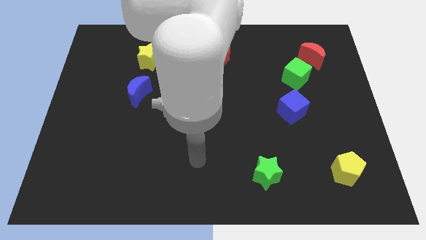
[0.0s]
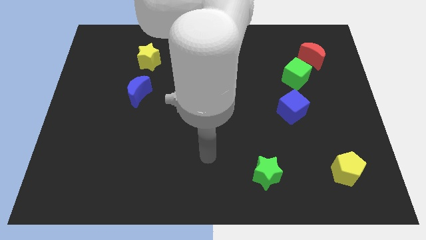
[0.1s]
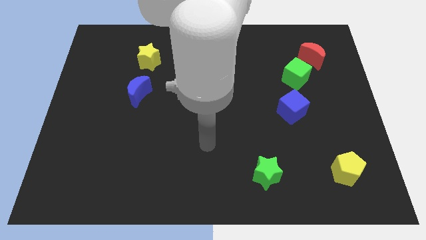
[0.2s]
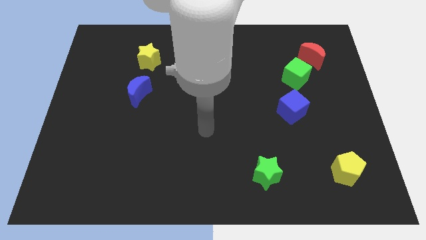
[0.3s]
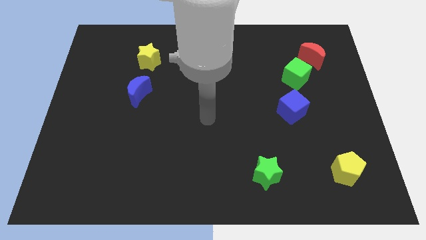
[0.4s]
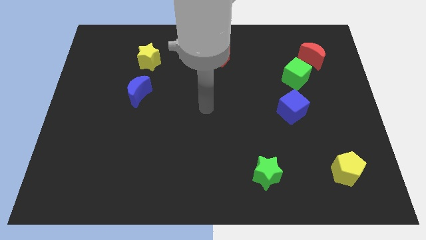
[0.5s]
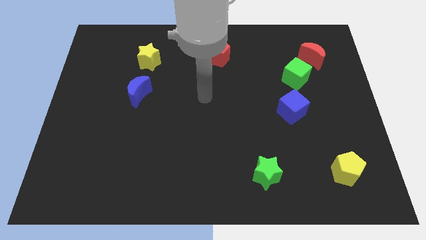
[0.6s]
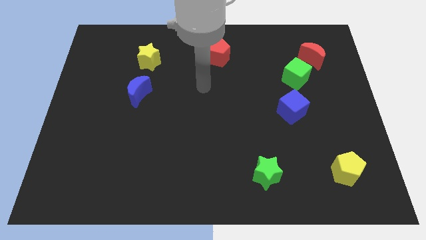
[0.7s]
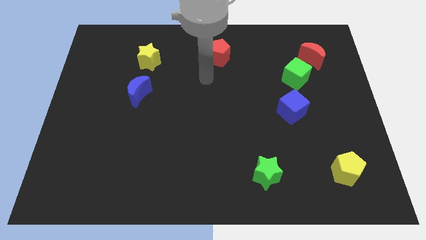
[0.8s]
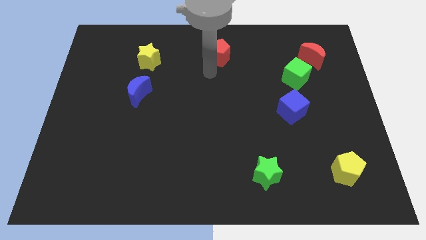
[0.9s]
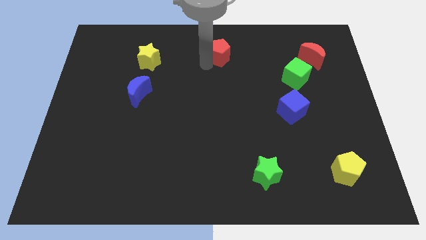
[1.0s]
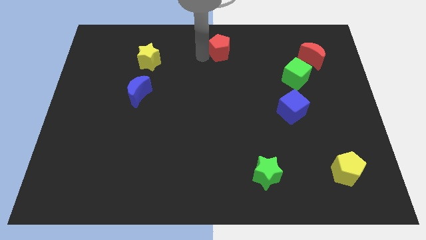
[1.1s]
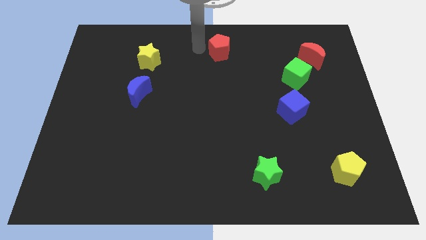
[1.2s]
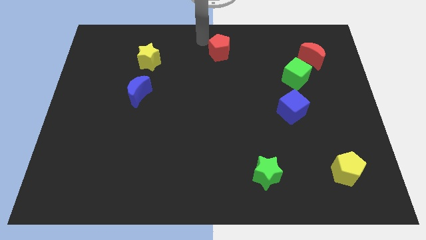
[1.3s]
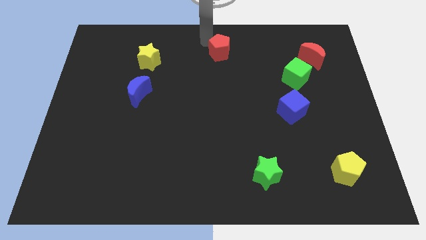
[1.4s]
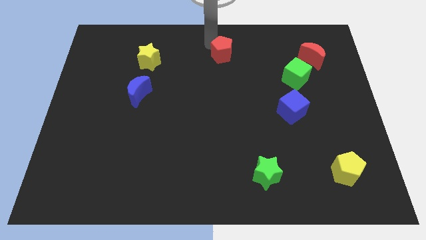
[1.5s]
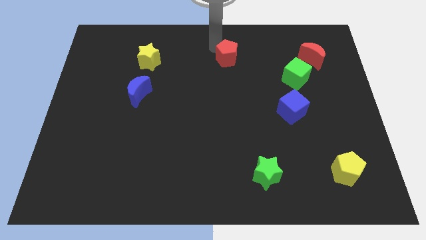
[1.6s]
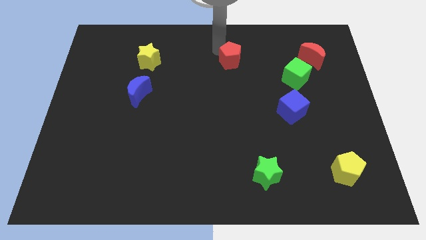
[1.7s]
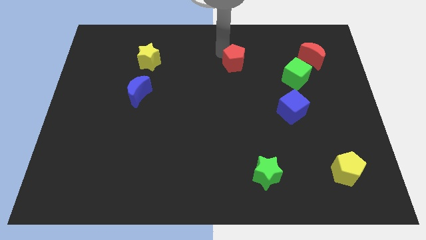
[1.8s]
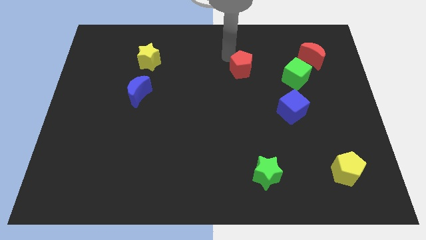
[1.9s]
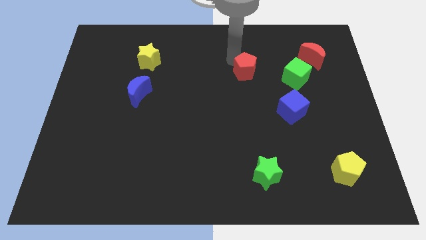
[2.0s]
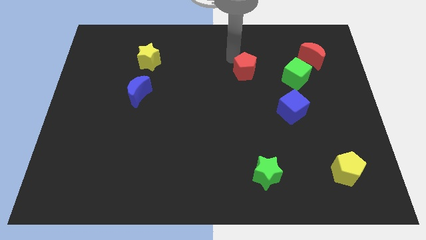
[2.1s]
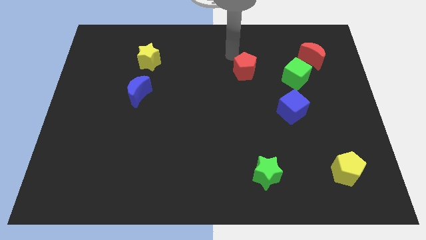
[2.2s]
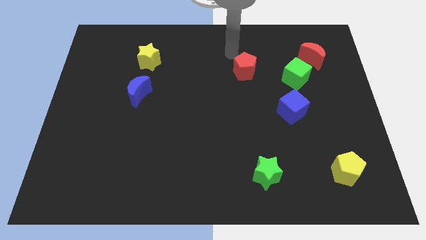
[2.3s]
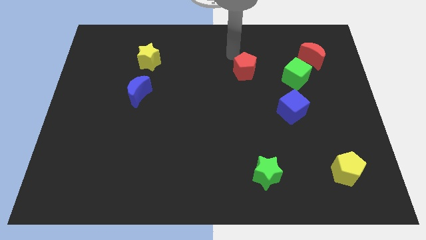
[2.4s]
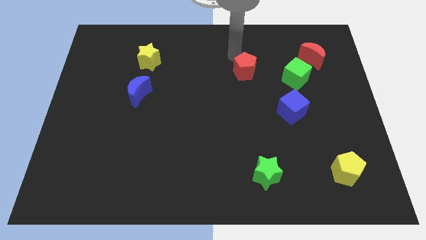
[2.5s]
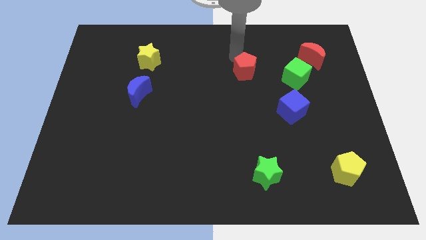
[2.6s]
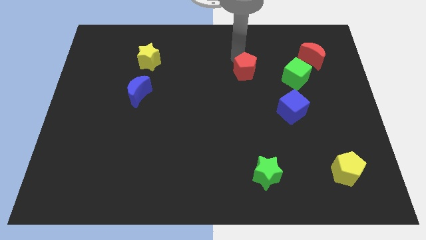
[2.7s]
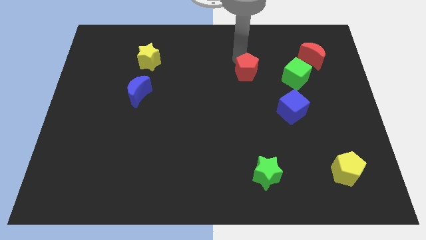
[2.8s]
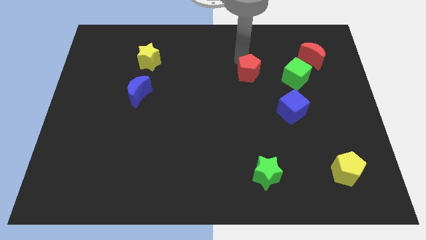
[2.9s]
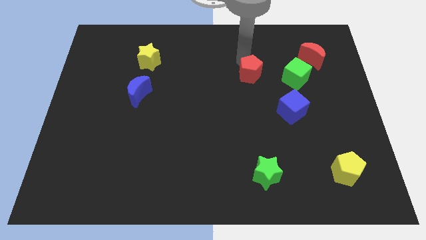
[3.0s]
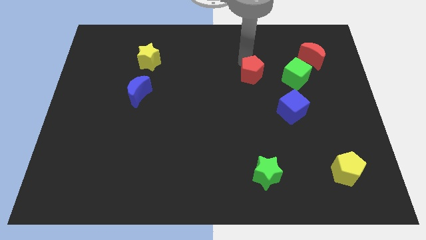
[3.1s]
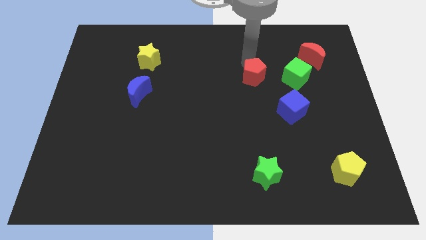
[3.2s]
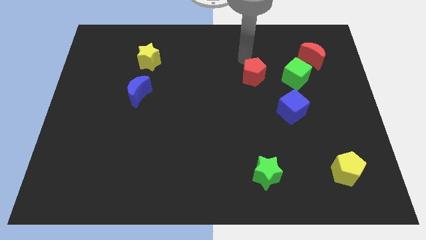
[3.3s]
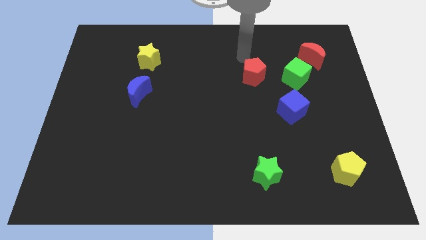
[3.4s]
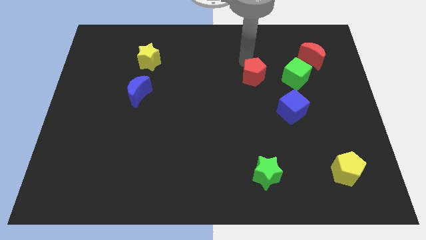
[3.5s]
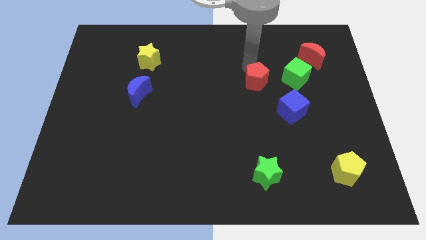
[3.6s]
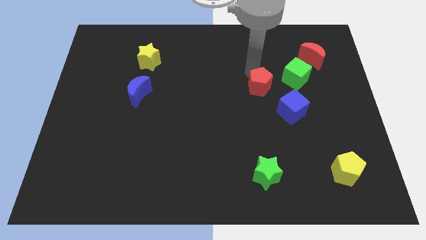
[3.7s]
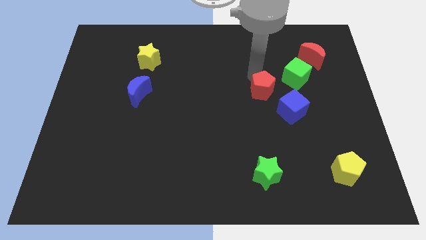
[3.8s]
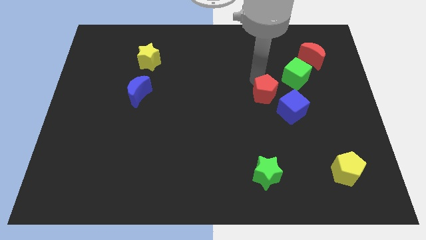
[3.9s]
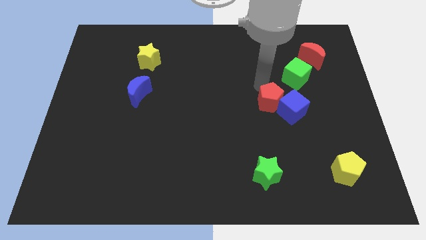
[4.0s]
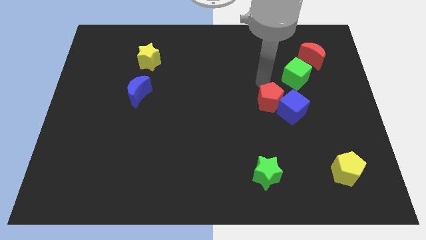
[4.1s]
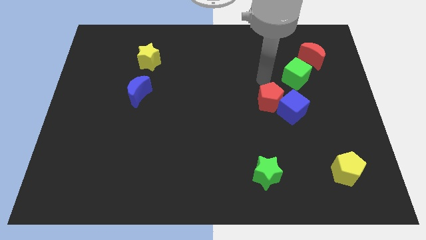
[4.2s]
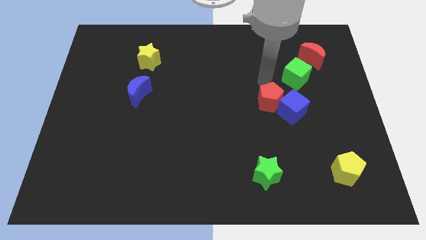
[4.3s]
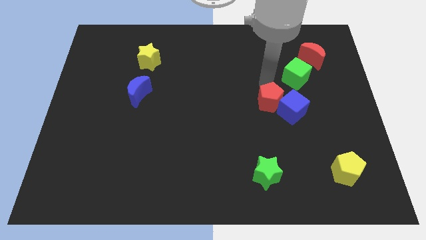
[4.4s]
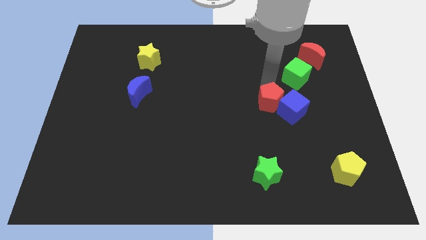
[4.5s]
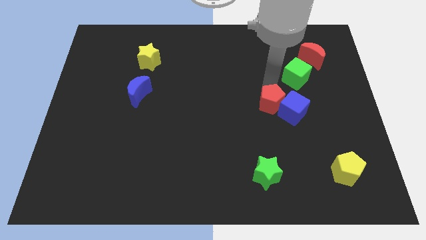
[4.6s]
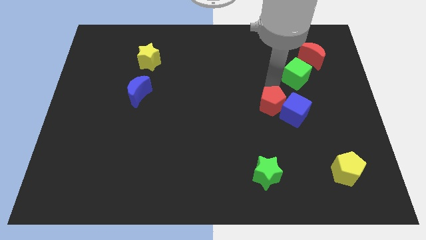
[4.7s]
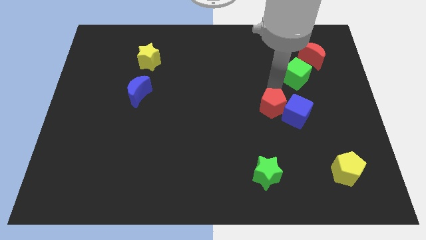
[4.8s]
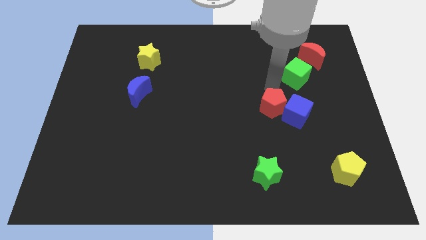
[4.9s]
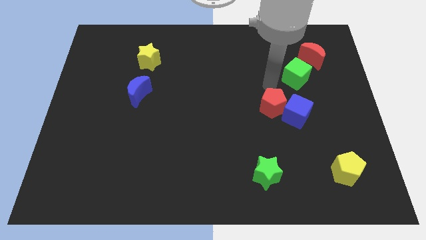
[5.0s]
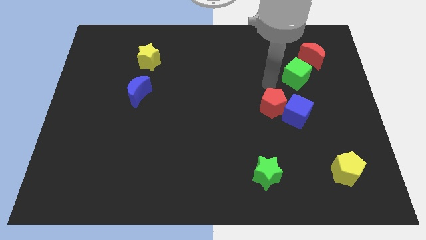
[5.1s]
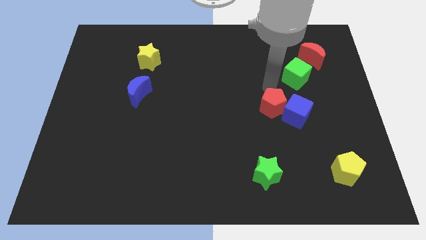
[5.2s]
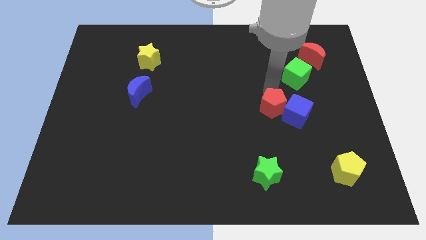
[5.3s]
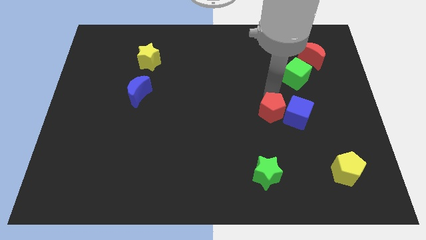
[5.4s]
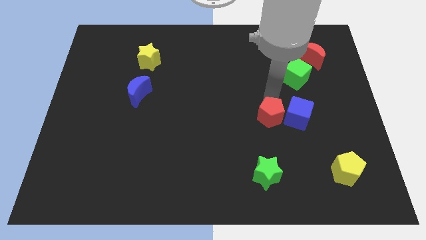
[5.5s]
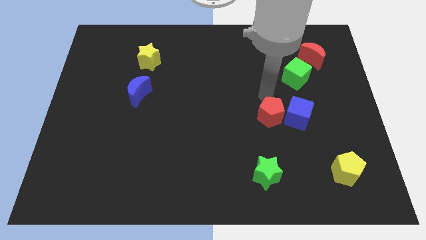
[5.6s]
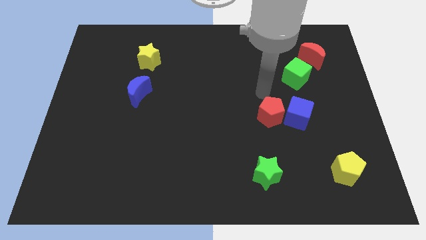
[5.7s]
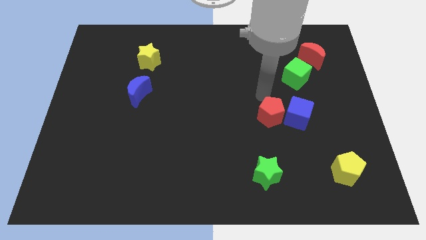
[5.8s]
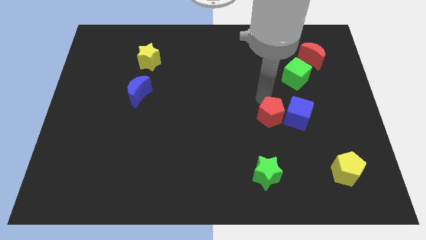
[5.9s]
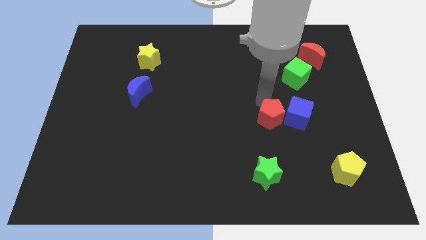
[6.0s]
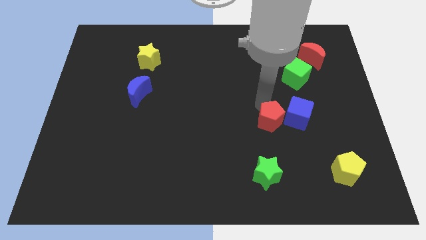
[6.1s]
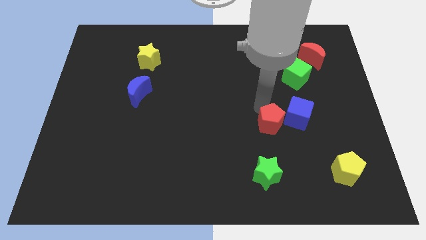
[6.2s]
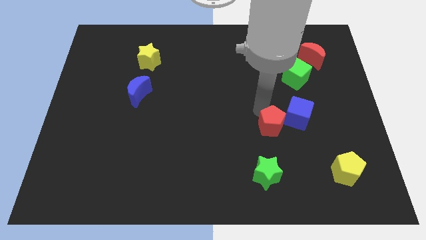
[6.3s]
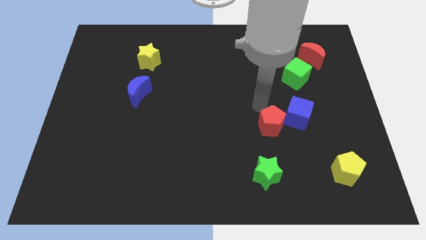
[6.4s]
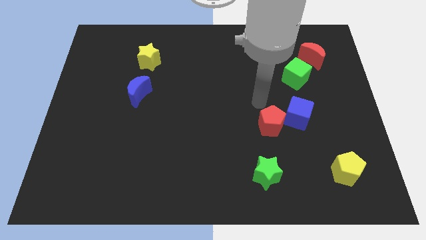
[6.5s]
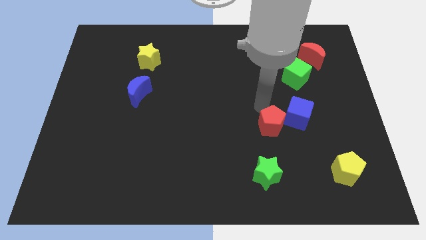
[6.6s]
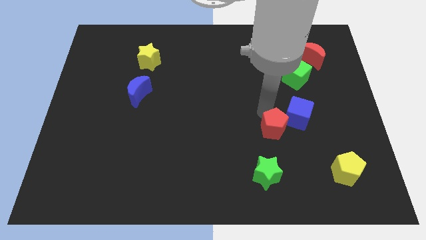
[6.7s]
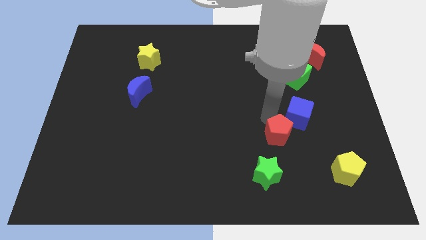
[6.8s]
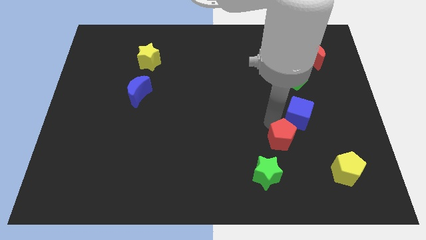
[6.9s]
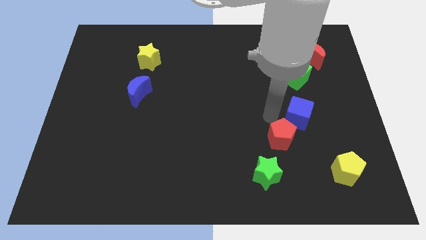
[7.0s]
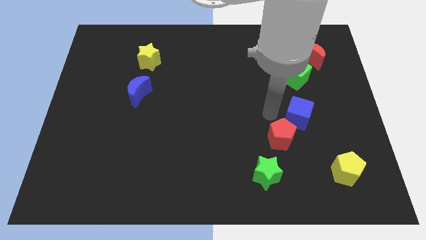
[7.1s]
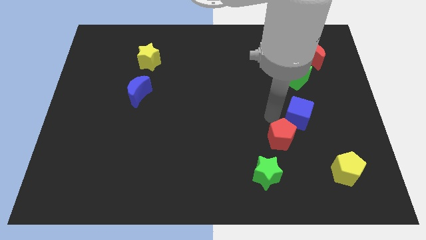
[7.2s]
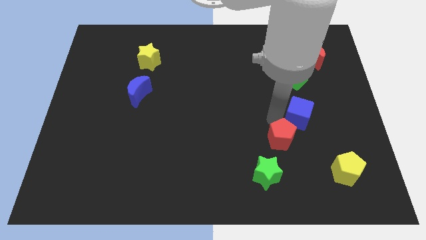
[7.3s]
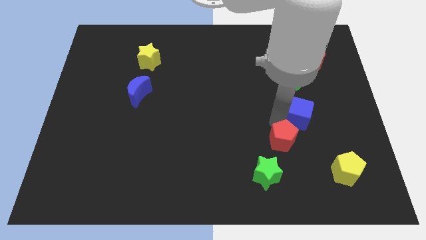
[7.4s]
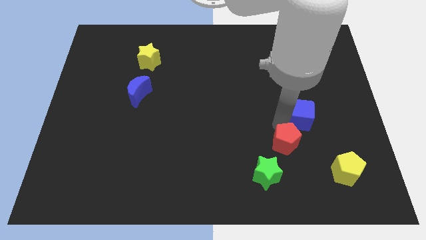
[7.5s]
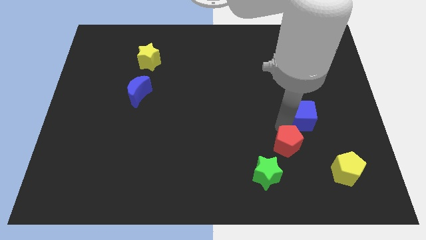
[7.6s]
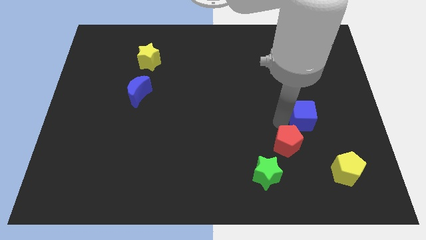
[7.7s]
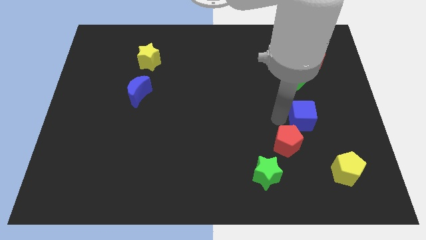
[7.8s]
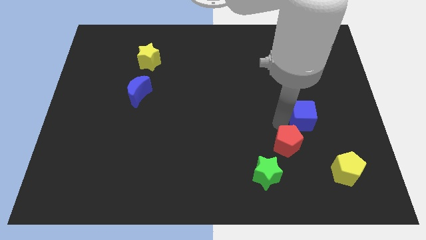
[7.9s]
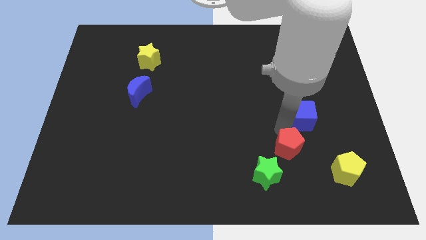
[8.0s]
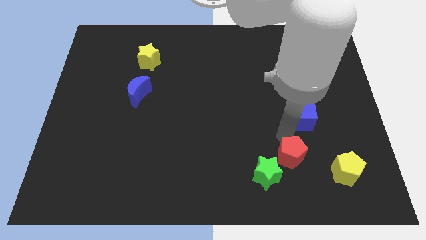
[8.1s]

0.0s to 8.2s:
put the red pentagon left of the yellow pentagon
